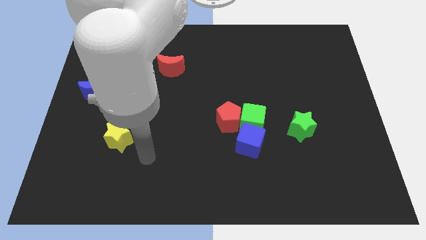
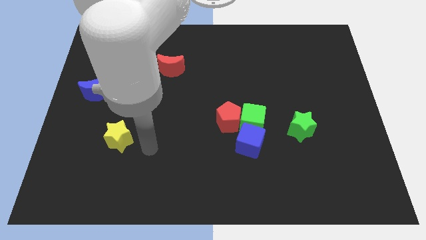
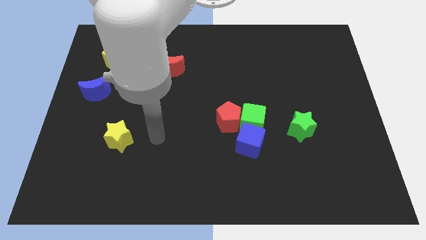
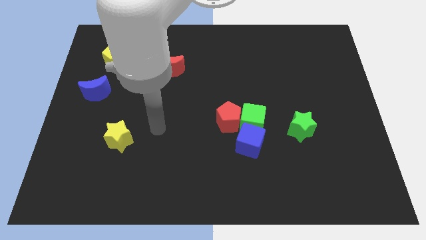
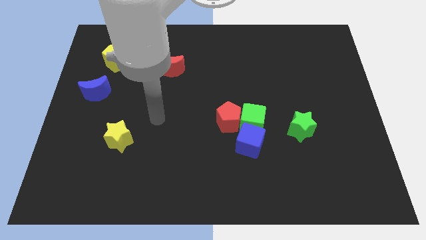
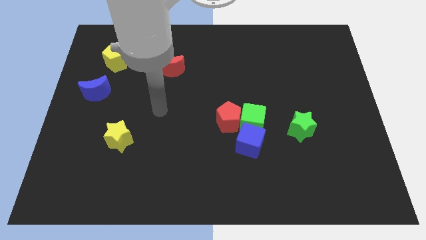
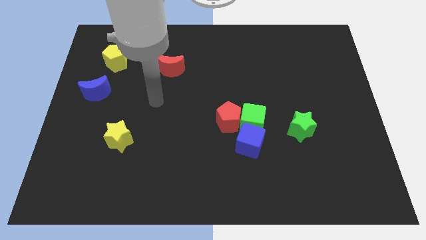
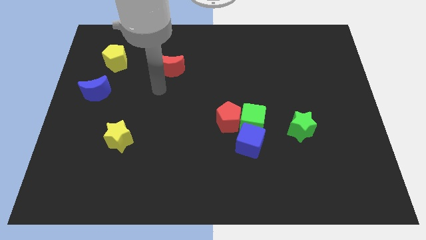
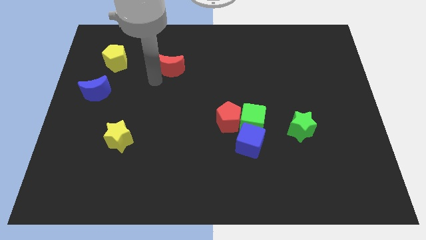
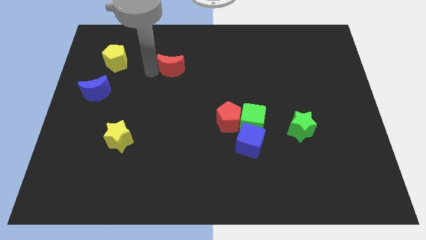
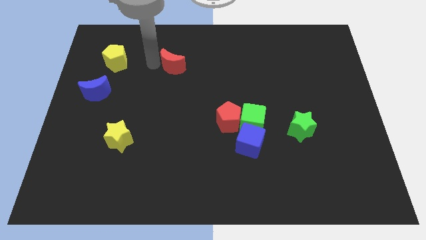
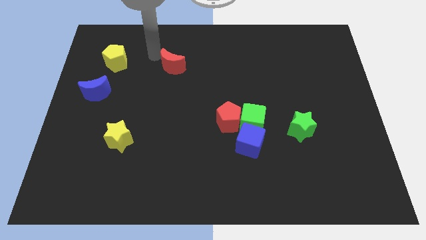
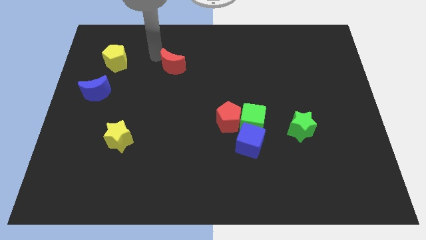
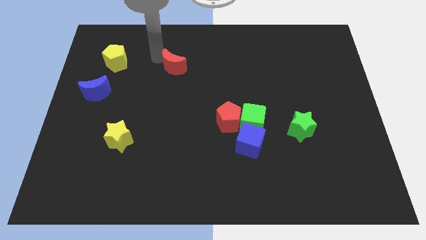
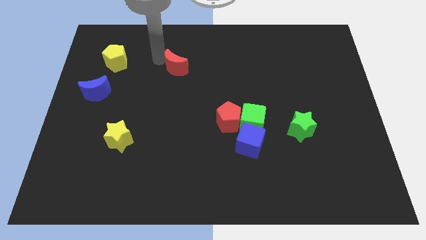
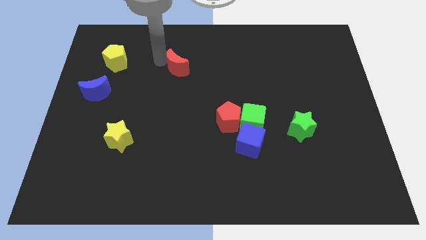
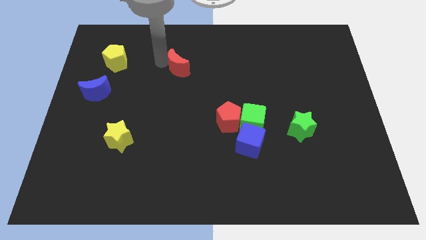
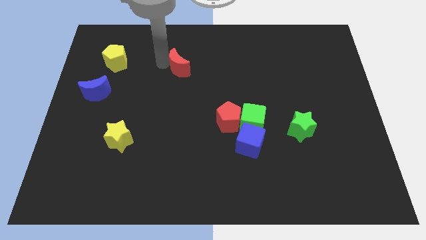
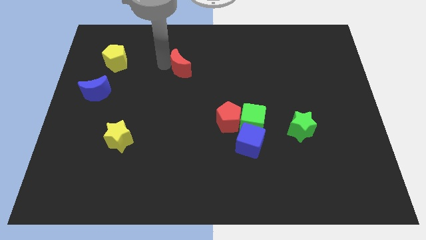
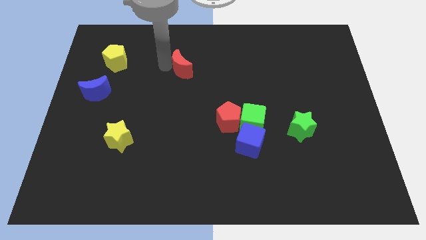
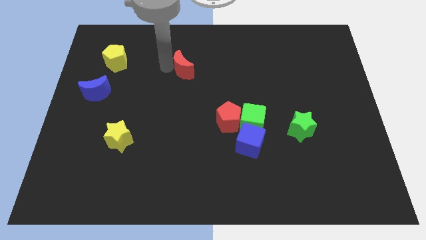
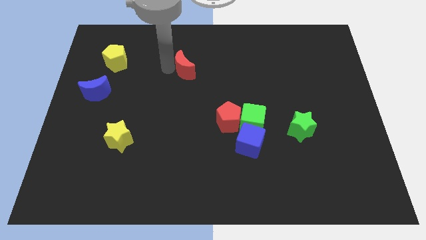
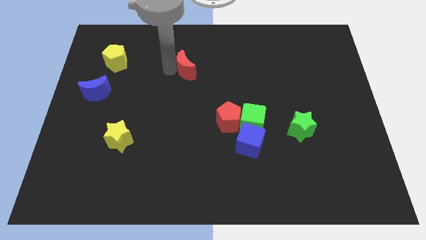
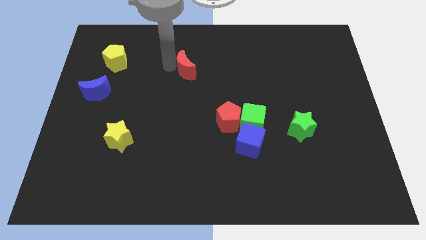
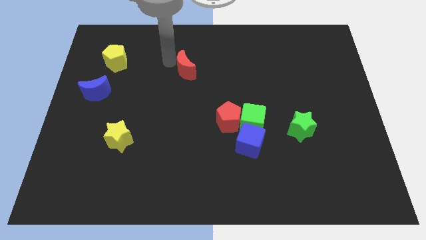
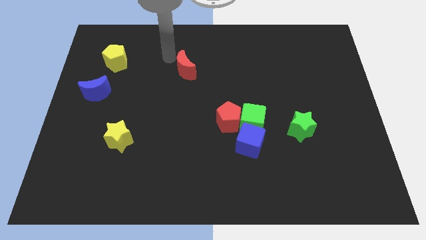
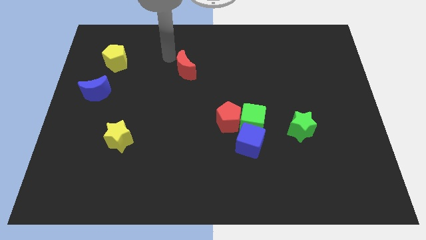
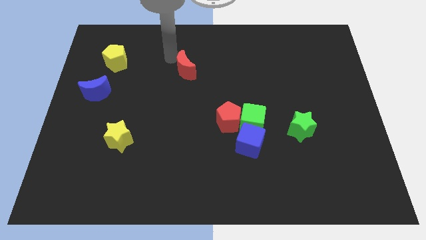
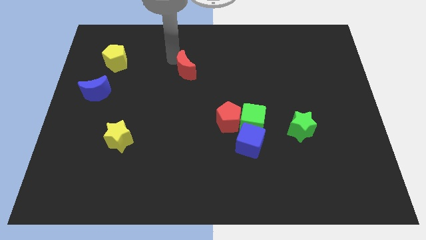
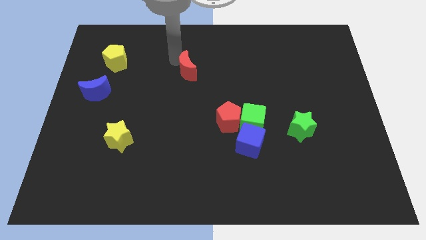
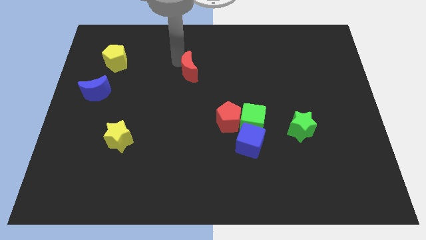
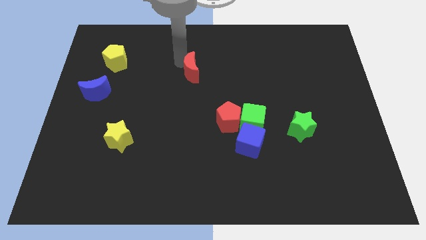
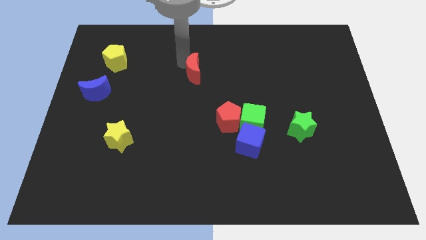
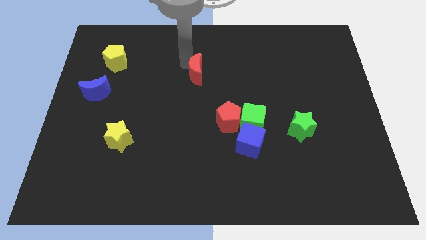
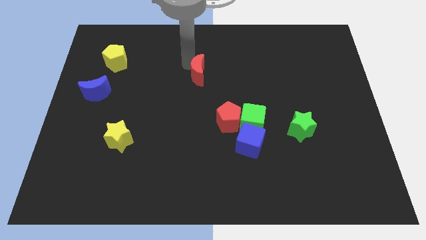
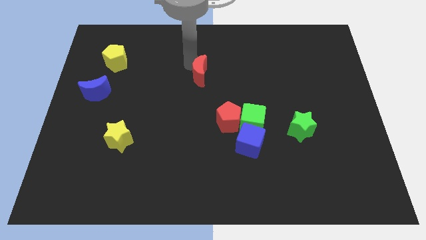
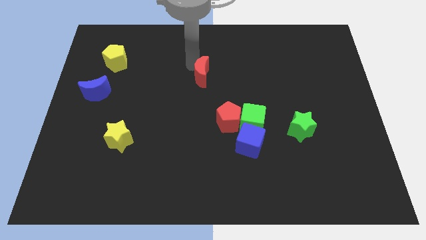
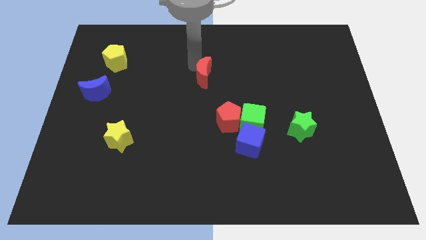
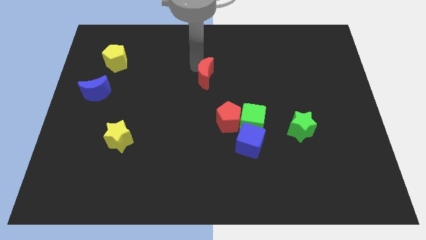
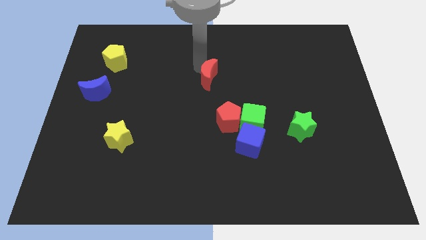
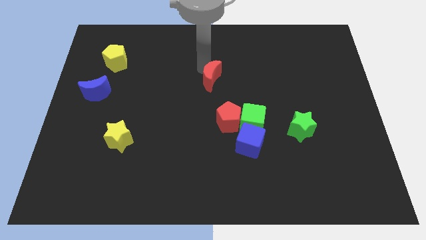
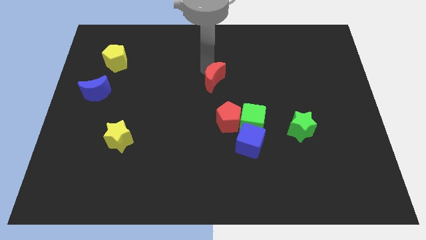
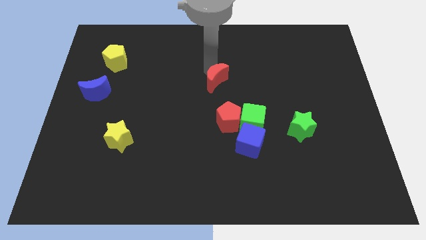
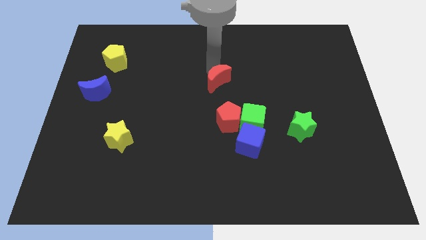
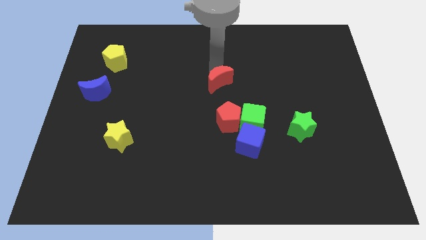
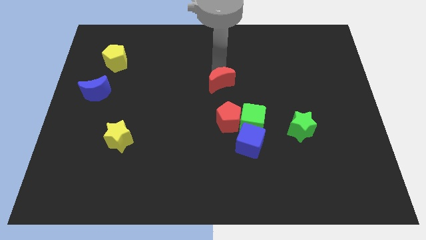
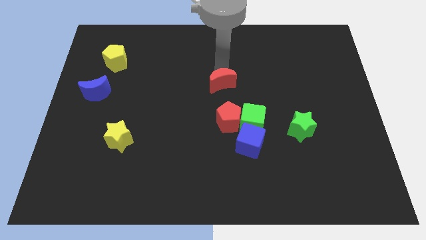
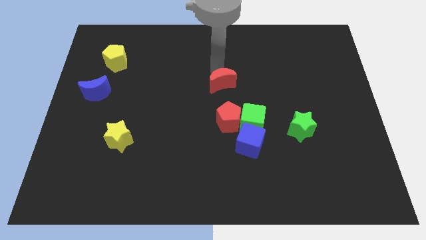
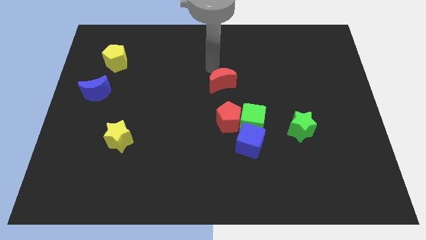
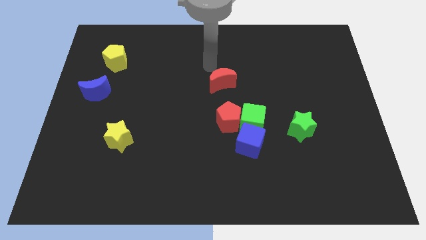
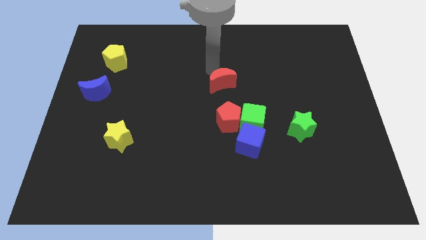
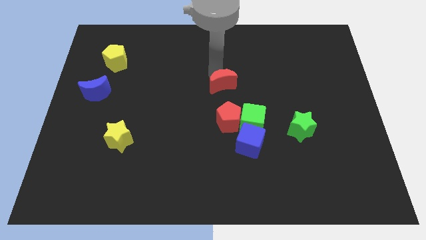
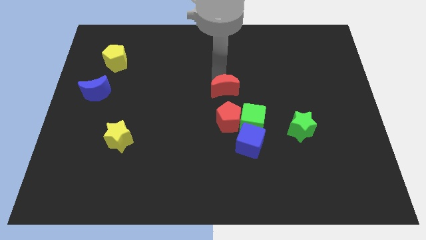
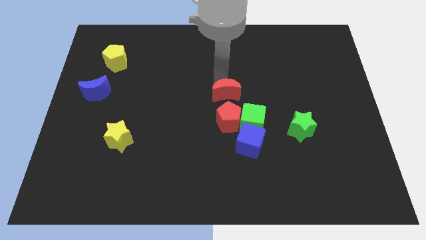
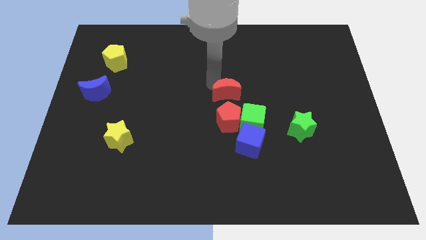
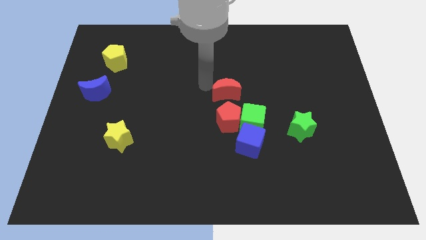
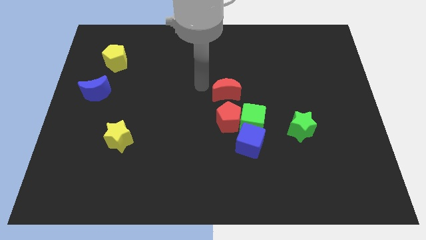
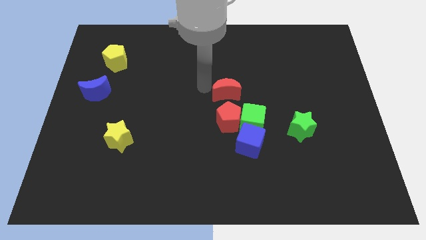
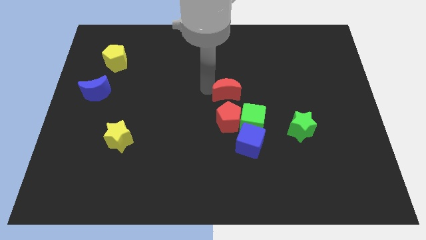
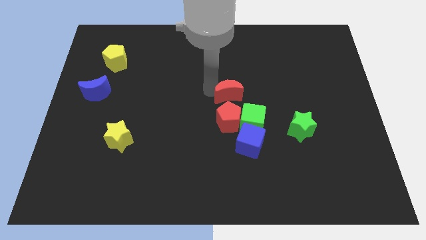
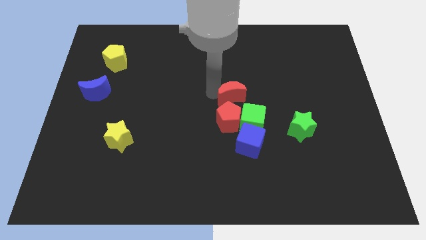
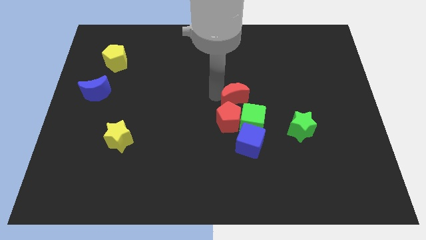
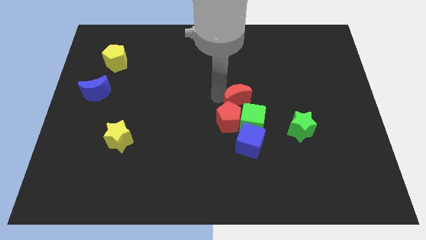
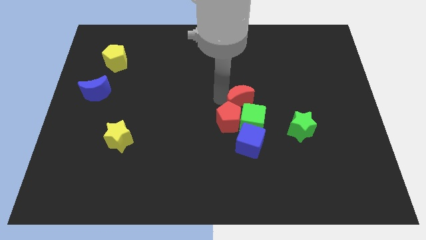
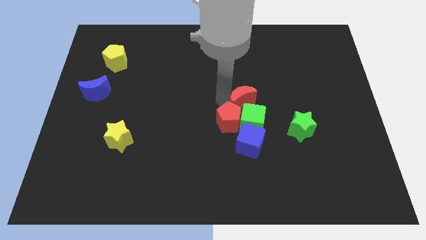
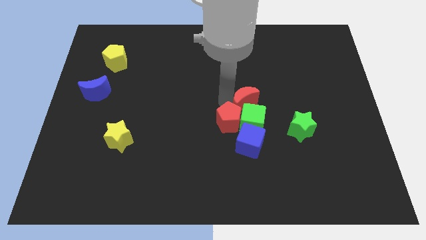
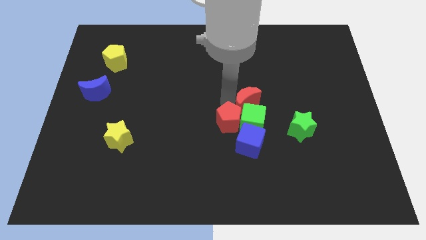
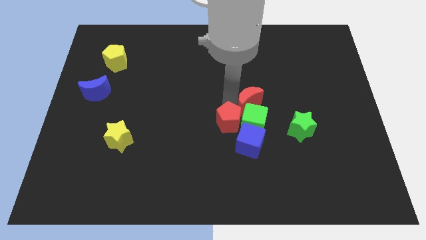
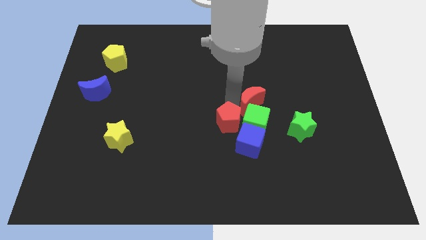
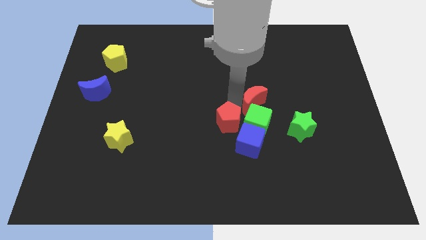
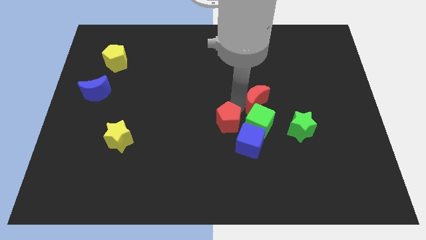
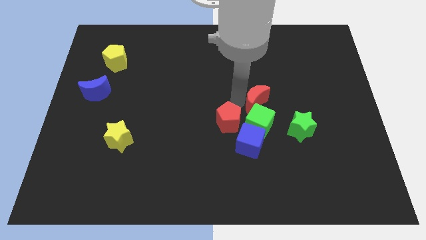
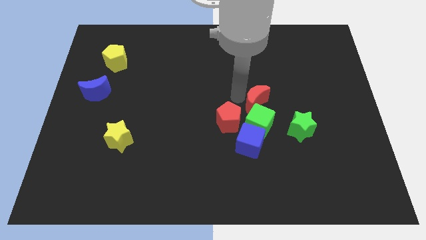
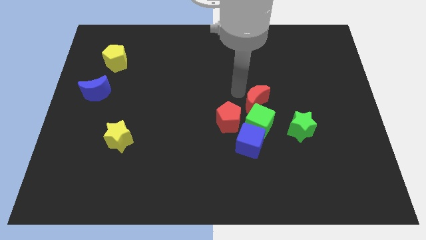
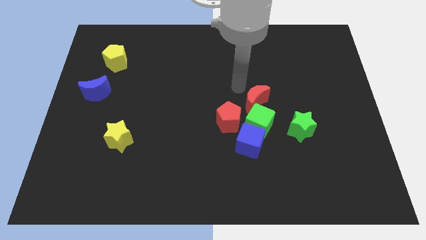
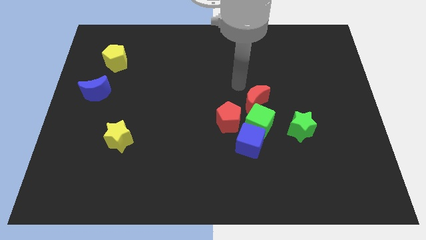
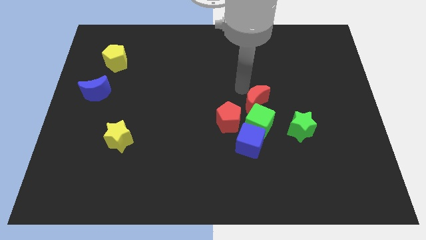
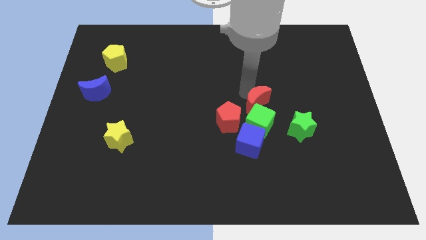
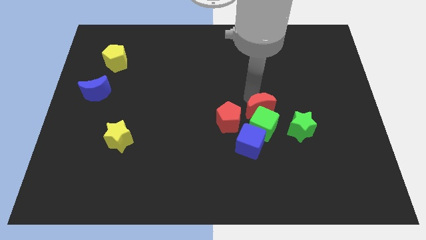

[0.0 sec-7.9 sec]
slide the red moon just right of the red pentagon
